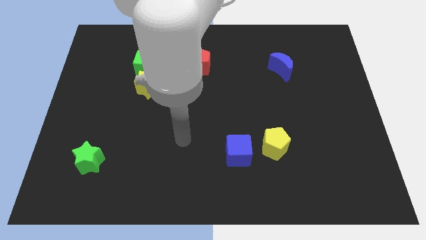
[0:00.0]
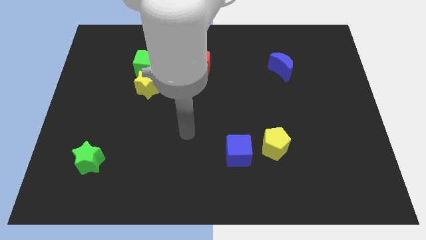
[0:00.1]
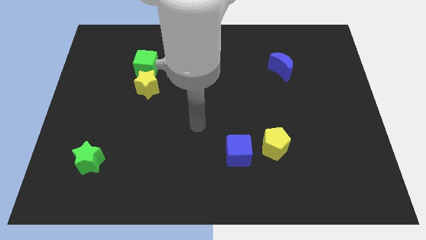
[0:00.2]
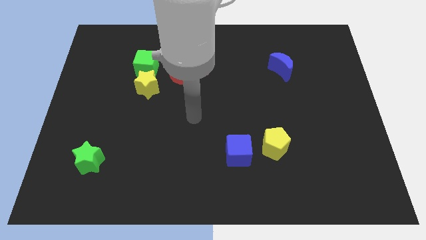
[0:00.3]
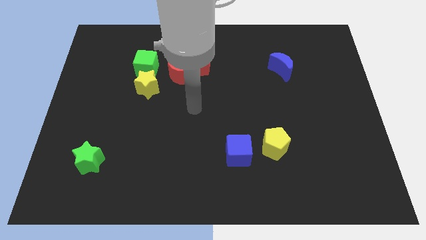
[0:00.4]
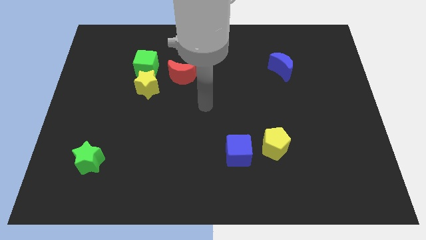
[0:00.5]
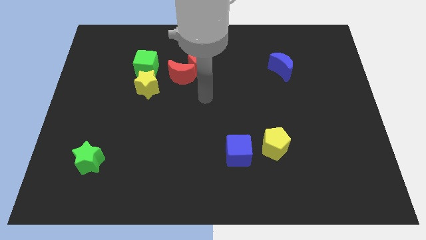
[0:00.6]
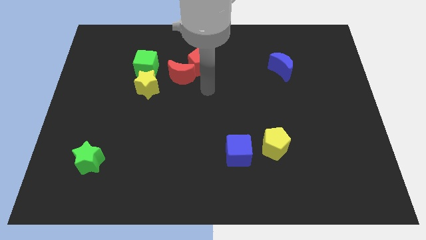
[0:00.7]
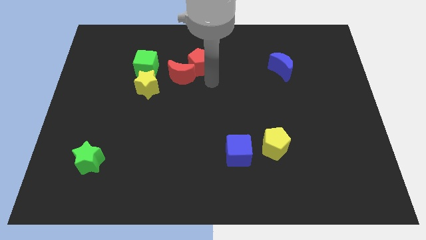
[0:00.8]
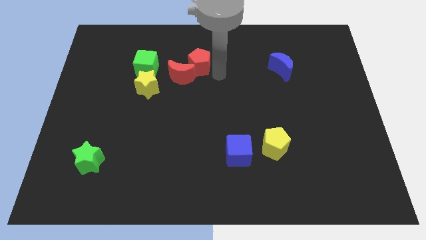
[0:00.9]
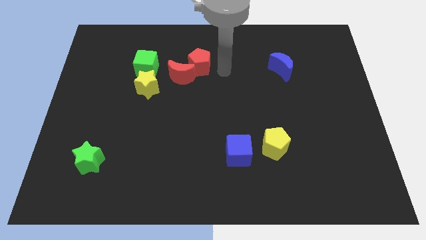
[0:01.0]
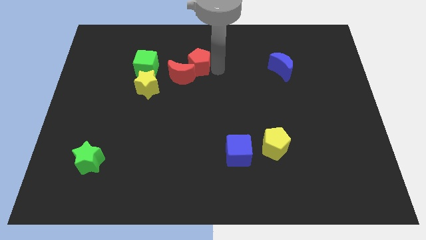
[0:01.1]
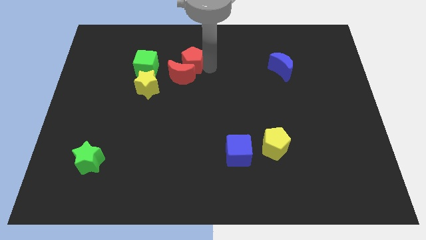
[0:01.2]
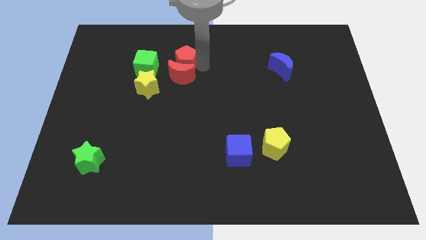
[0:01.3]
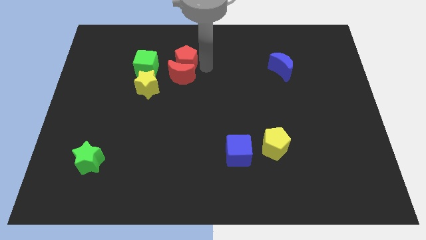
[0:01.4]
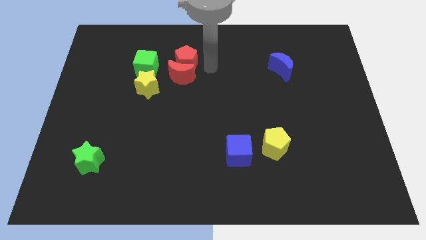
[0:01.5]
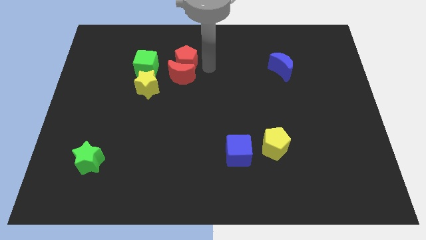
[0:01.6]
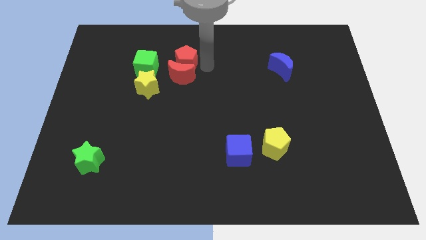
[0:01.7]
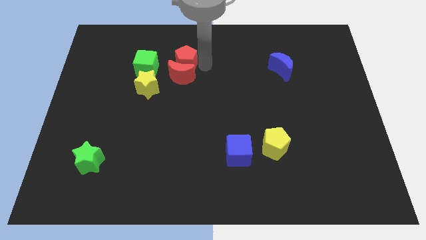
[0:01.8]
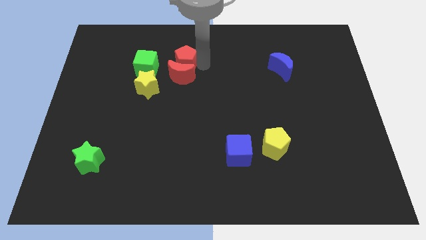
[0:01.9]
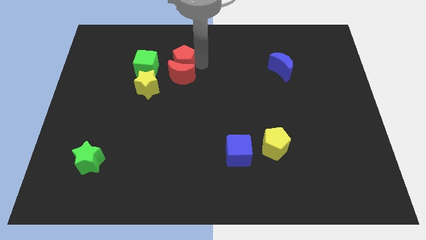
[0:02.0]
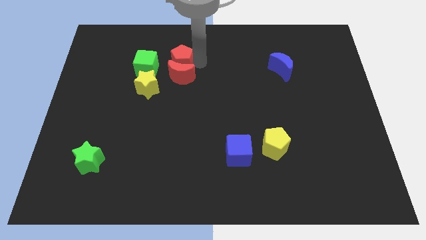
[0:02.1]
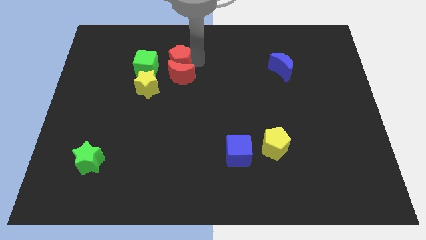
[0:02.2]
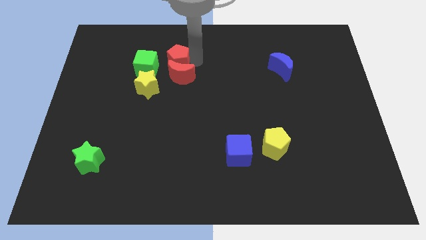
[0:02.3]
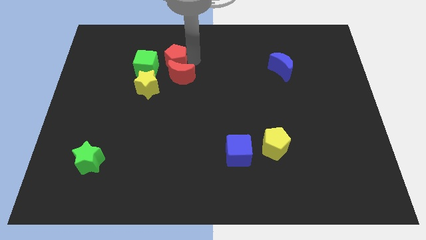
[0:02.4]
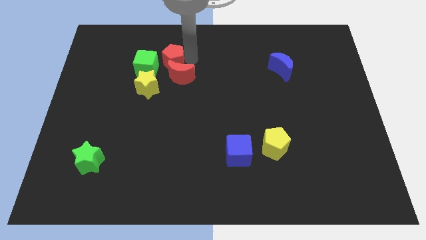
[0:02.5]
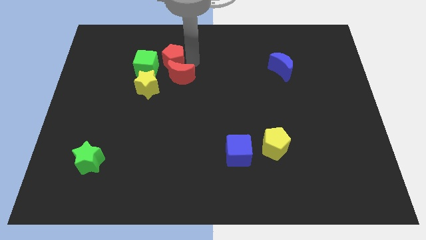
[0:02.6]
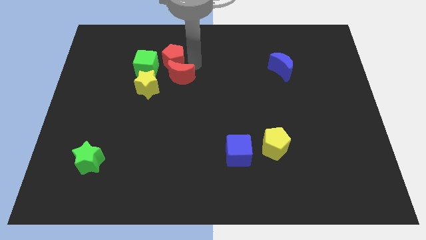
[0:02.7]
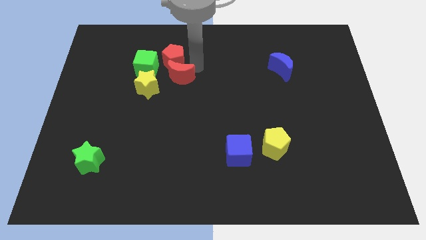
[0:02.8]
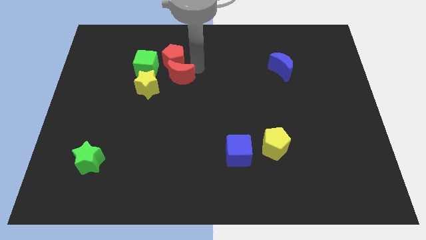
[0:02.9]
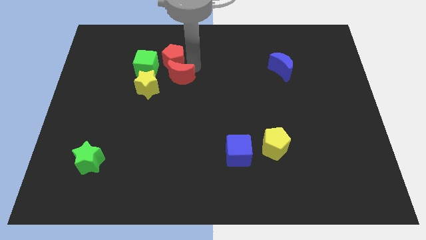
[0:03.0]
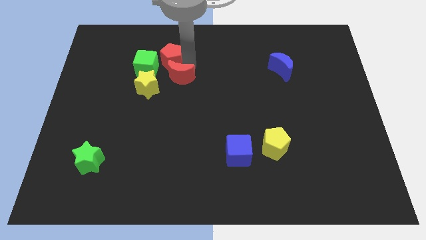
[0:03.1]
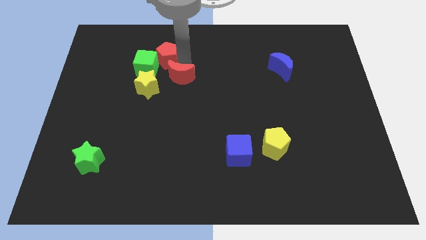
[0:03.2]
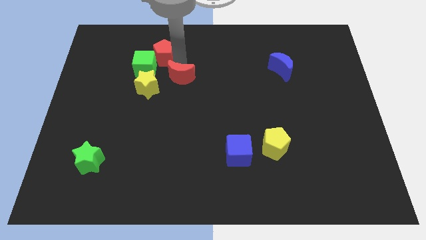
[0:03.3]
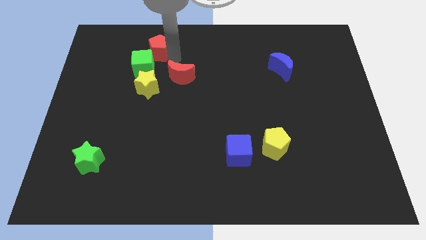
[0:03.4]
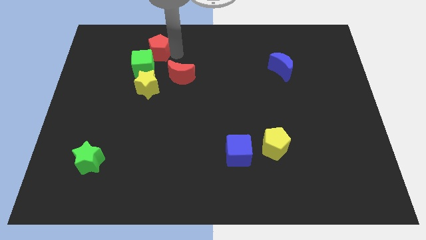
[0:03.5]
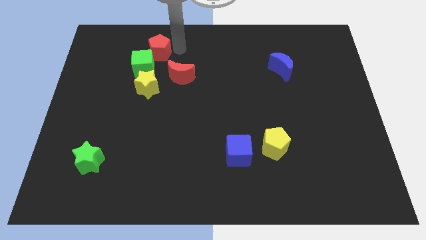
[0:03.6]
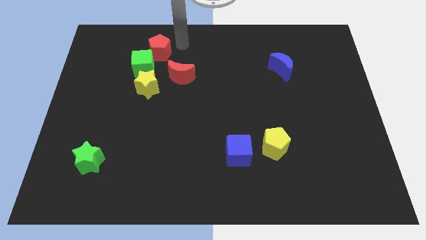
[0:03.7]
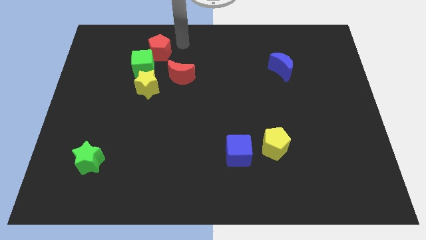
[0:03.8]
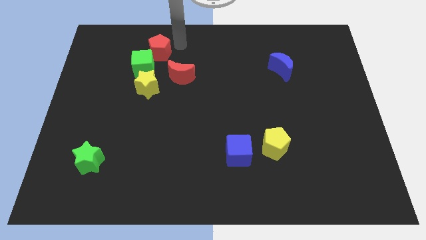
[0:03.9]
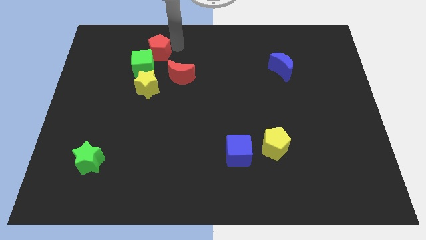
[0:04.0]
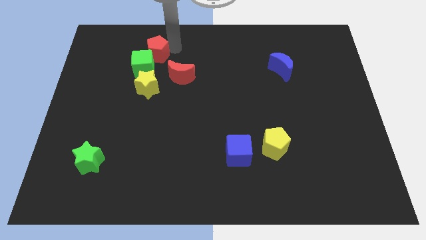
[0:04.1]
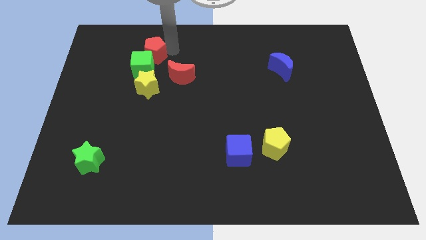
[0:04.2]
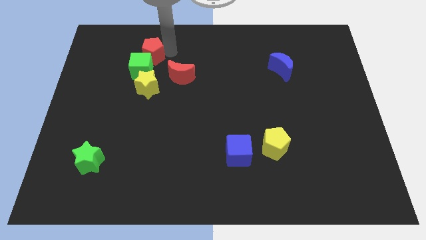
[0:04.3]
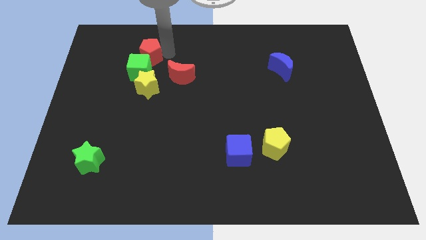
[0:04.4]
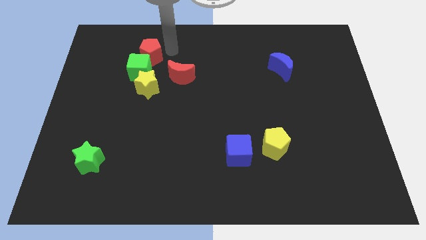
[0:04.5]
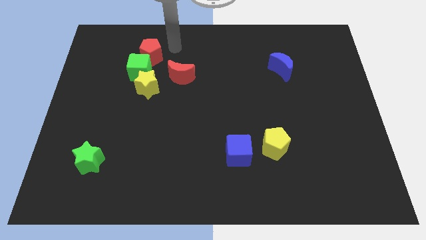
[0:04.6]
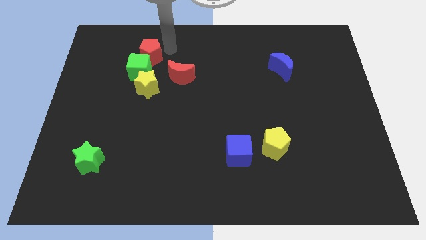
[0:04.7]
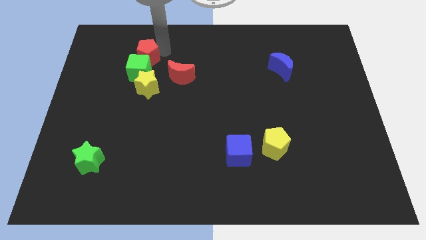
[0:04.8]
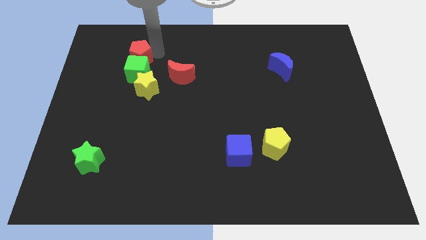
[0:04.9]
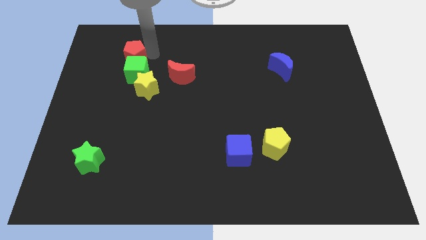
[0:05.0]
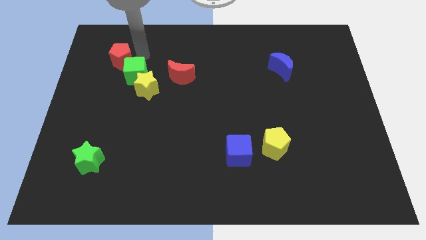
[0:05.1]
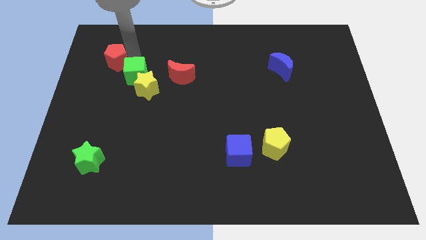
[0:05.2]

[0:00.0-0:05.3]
push the red pentagon to the left side of the green cube

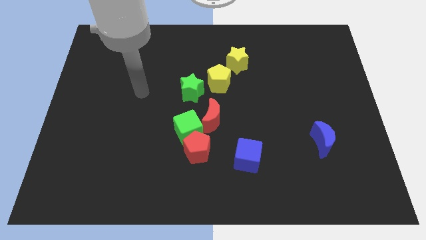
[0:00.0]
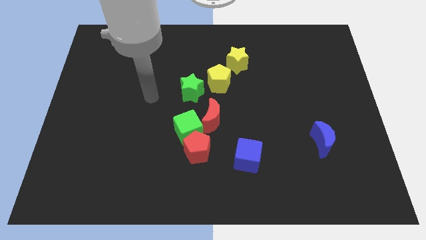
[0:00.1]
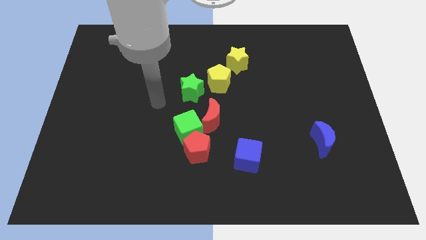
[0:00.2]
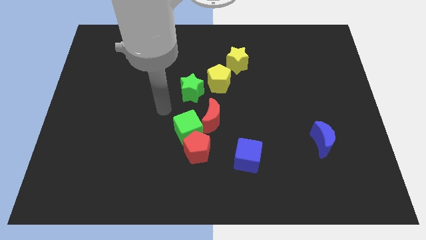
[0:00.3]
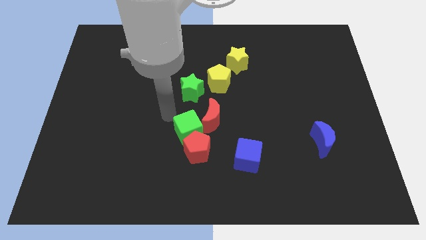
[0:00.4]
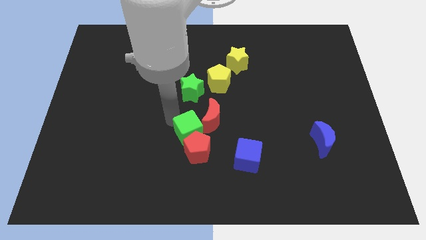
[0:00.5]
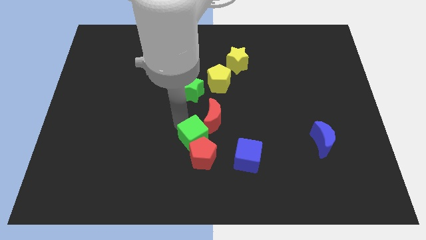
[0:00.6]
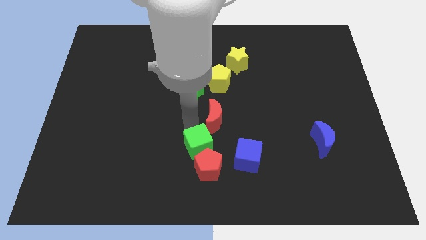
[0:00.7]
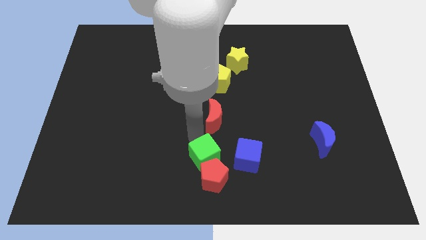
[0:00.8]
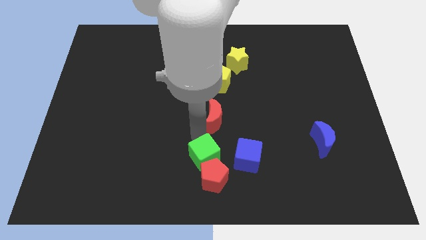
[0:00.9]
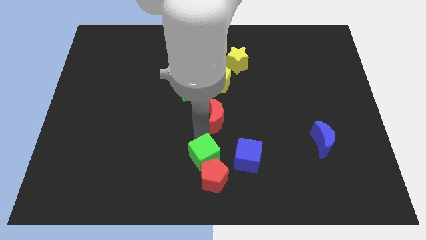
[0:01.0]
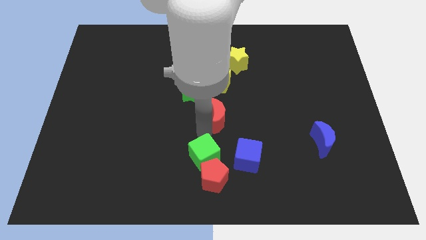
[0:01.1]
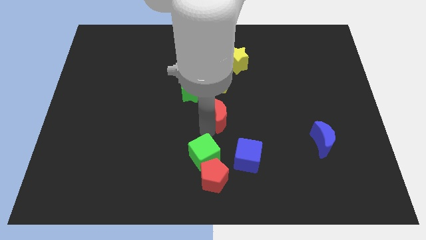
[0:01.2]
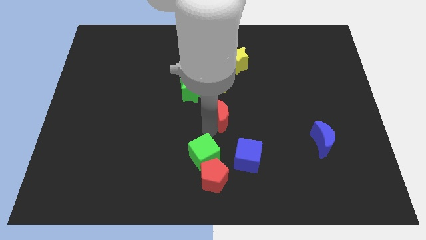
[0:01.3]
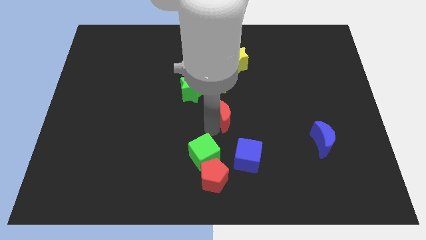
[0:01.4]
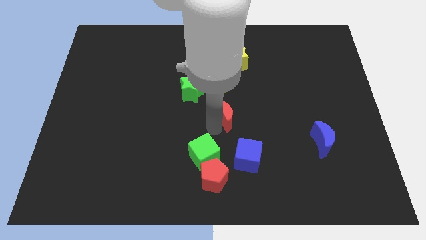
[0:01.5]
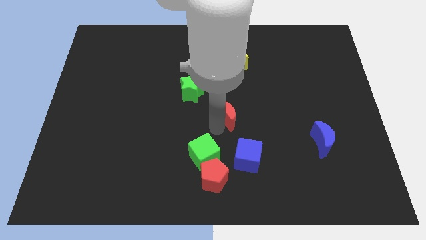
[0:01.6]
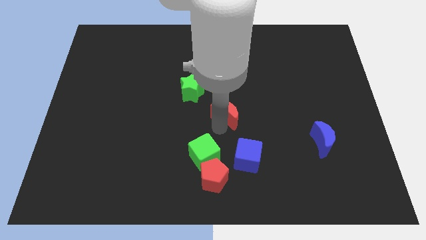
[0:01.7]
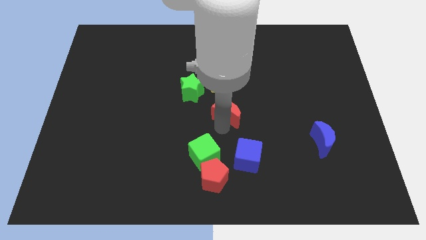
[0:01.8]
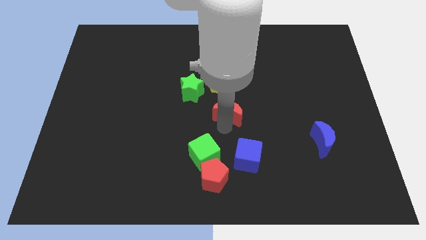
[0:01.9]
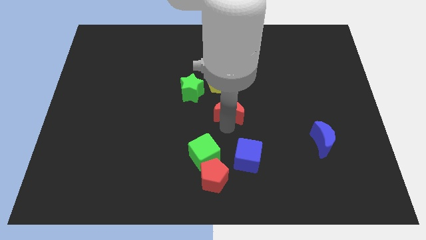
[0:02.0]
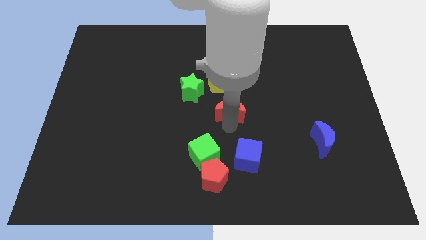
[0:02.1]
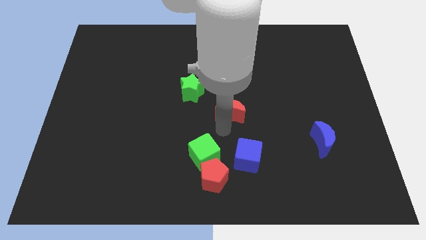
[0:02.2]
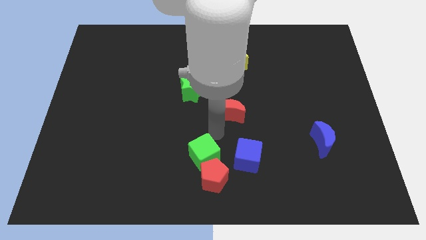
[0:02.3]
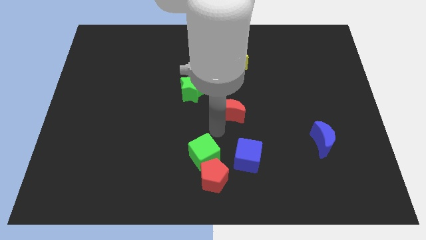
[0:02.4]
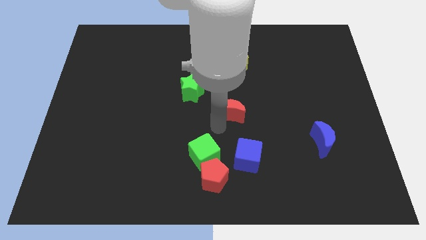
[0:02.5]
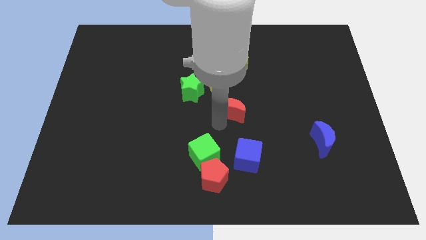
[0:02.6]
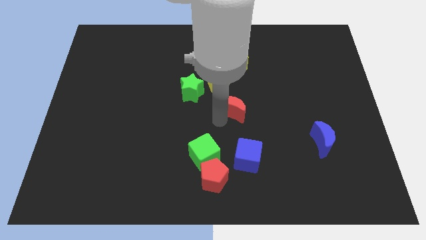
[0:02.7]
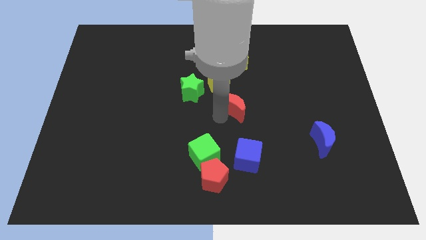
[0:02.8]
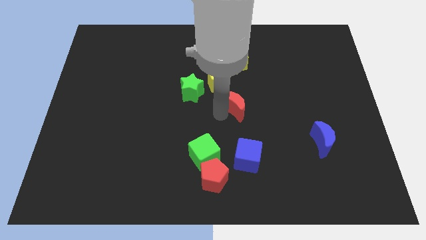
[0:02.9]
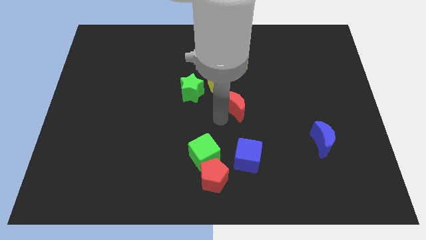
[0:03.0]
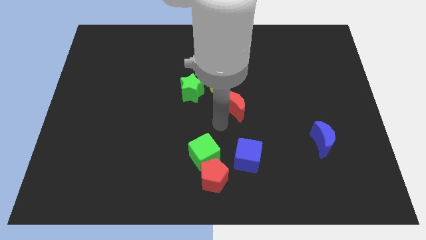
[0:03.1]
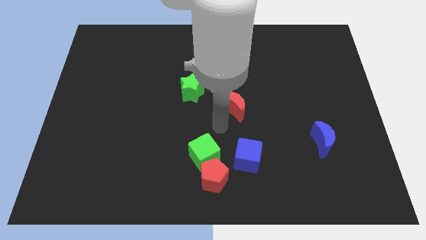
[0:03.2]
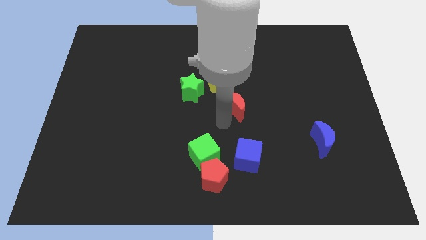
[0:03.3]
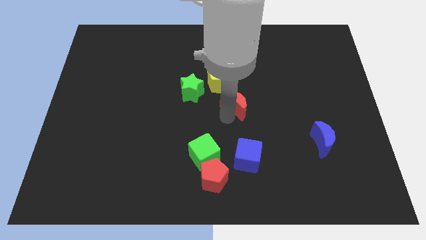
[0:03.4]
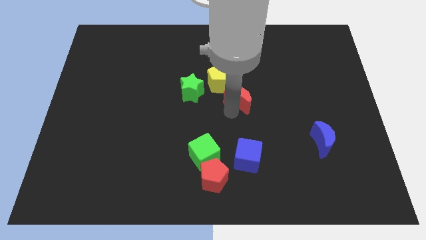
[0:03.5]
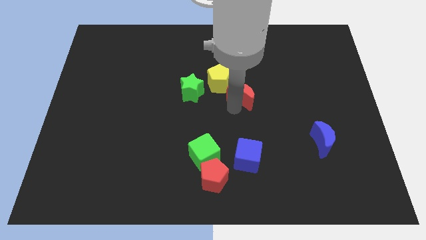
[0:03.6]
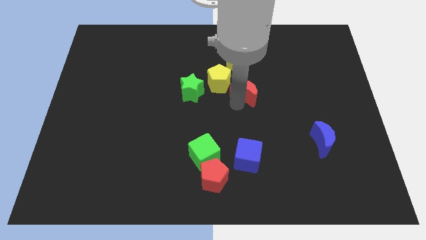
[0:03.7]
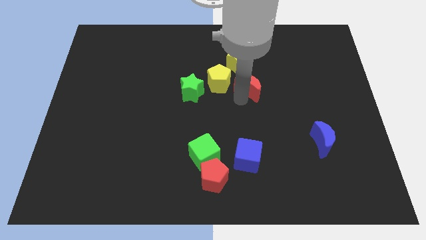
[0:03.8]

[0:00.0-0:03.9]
push the red moon to the bottom right of the yellow star
